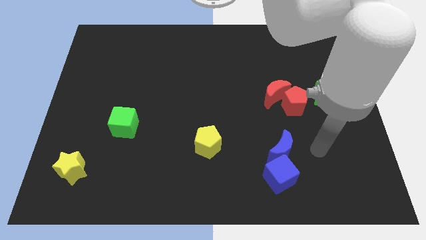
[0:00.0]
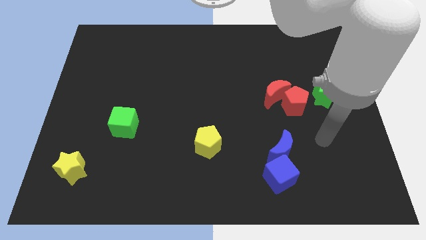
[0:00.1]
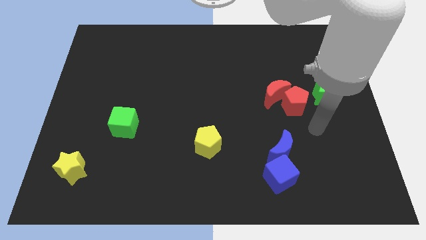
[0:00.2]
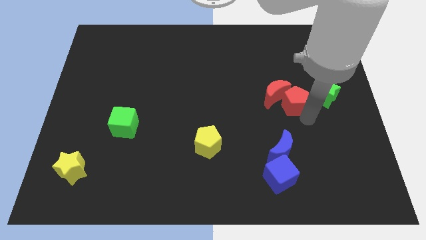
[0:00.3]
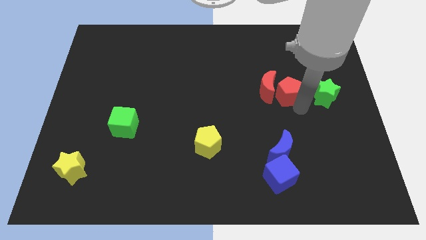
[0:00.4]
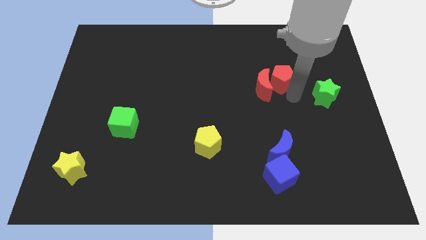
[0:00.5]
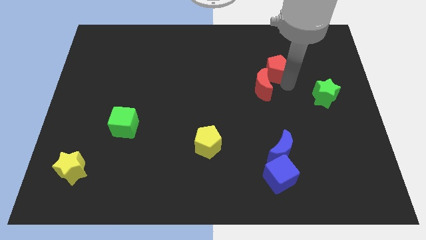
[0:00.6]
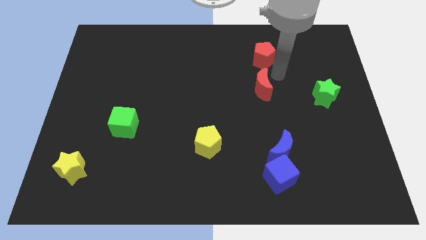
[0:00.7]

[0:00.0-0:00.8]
pull the red moon apart from the red pentagon

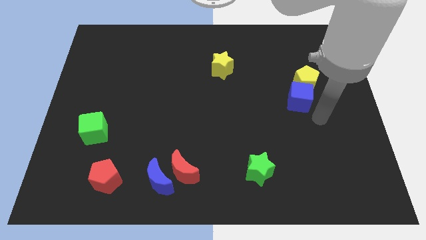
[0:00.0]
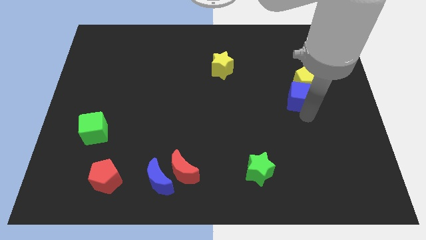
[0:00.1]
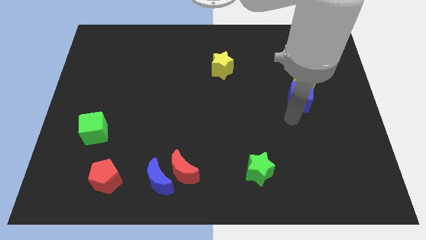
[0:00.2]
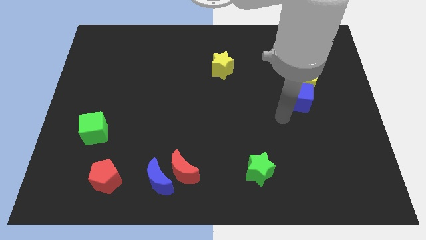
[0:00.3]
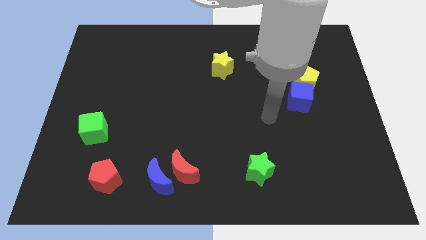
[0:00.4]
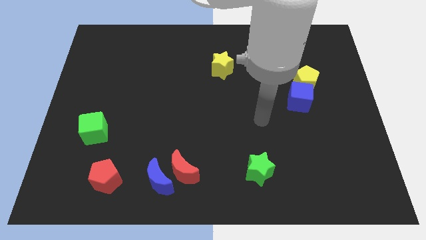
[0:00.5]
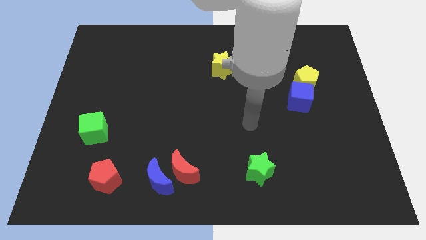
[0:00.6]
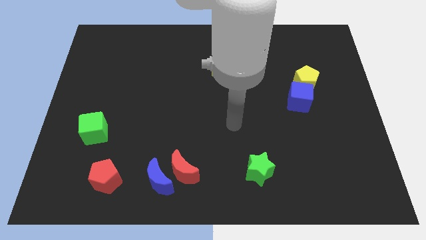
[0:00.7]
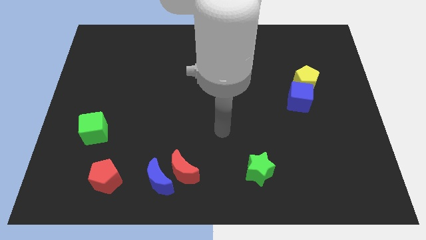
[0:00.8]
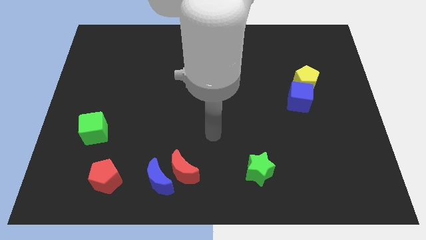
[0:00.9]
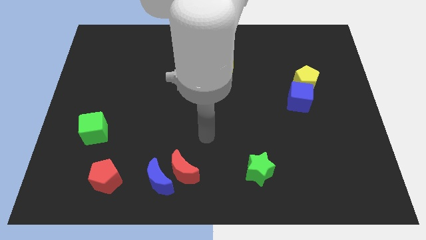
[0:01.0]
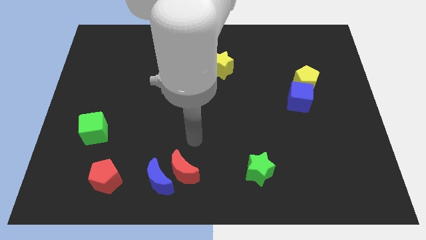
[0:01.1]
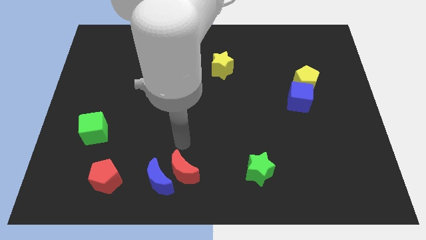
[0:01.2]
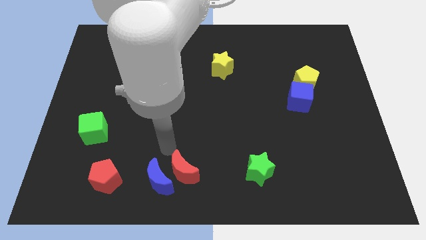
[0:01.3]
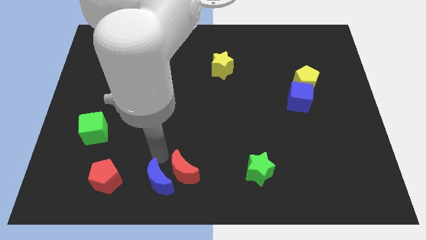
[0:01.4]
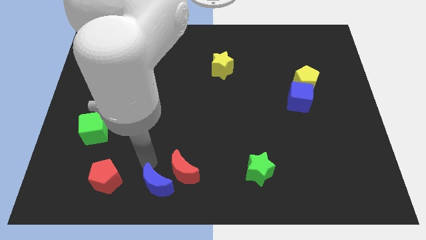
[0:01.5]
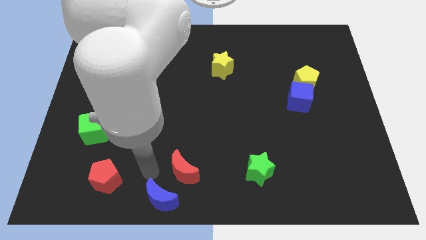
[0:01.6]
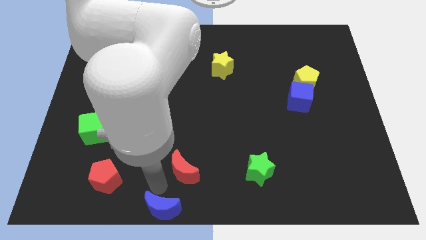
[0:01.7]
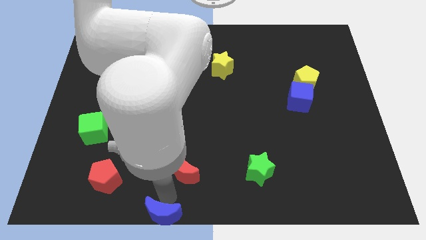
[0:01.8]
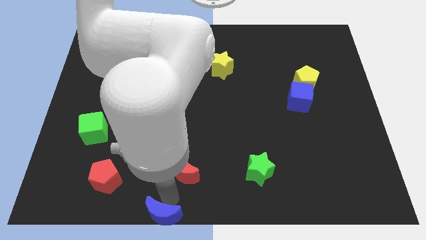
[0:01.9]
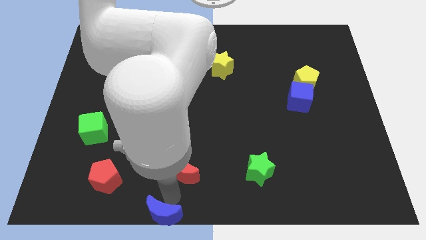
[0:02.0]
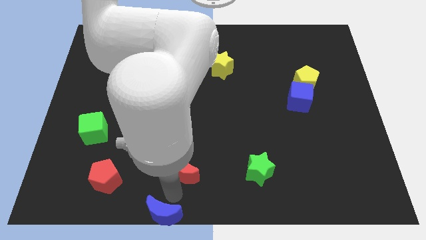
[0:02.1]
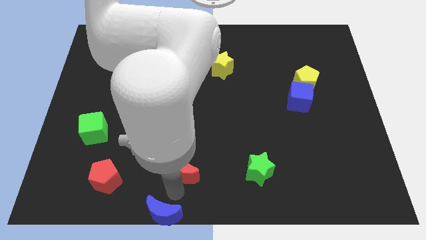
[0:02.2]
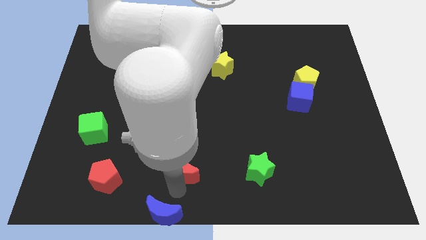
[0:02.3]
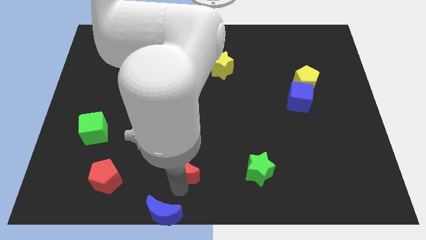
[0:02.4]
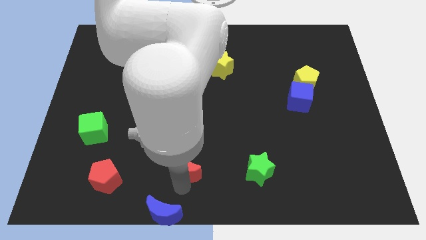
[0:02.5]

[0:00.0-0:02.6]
pull the red moon apart from the blue moon

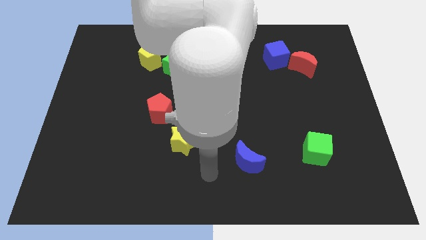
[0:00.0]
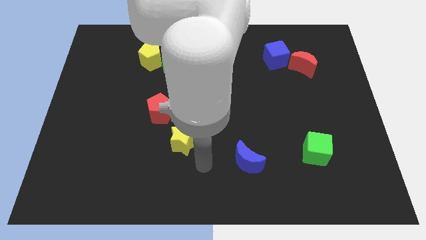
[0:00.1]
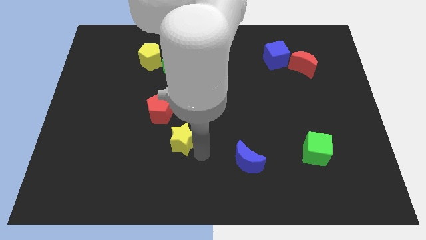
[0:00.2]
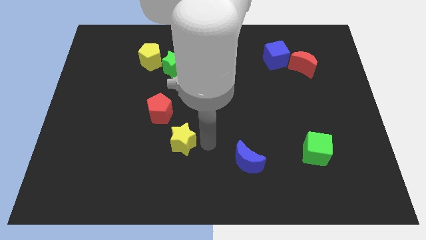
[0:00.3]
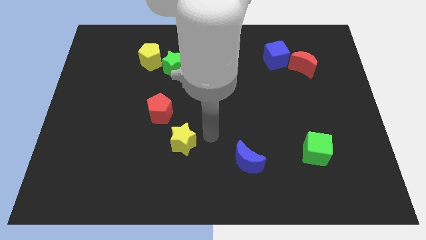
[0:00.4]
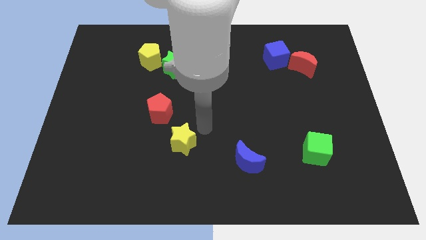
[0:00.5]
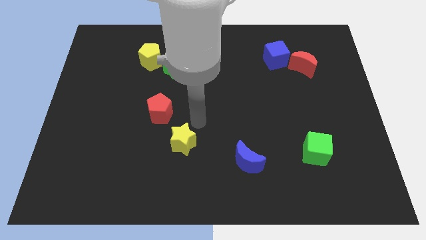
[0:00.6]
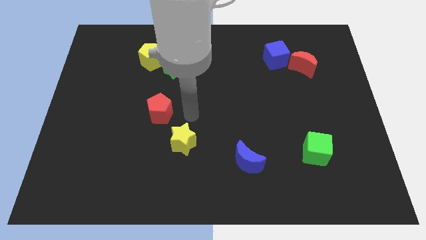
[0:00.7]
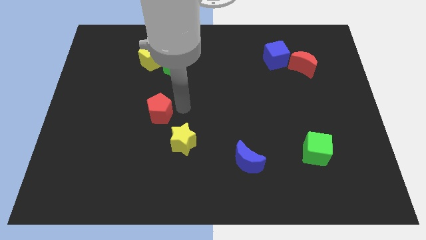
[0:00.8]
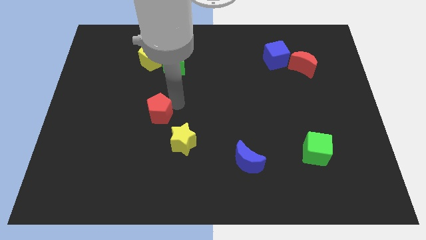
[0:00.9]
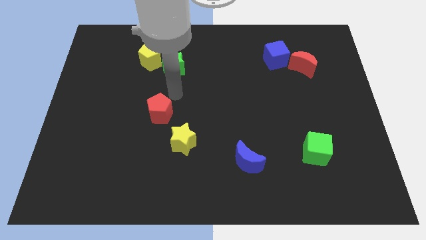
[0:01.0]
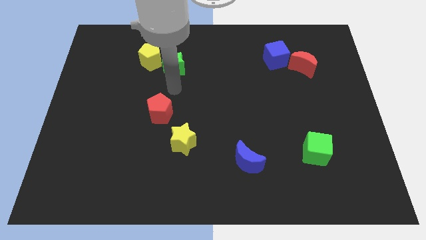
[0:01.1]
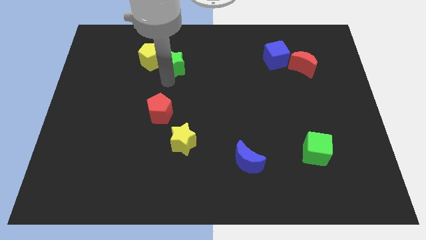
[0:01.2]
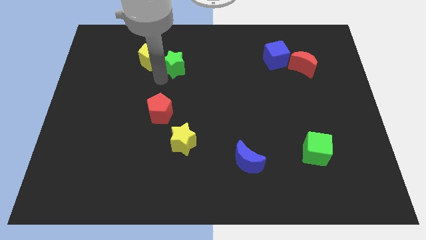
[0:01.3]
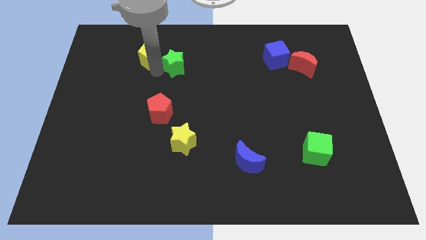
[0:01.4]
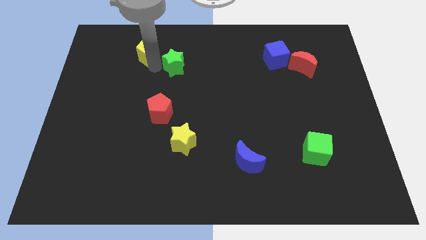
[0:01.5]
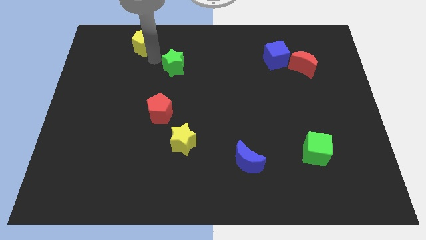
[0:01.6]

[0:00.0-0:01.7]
move the green star away from the yellow pentagon

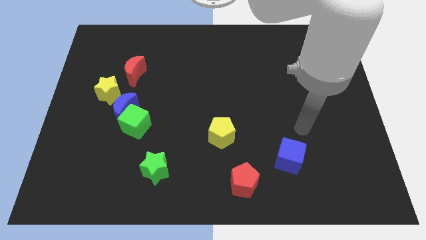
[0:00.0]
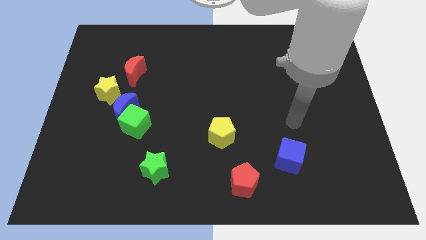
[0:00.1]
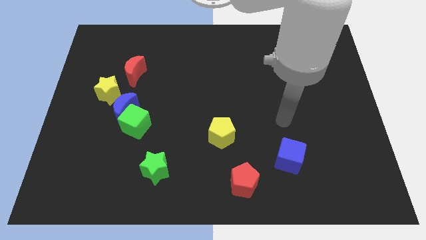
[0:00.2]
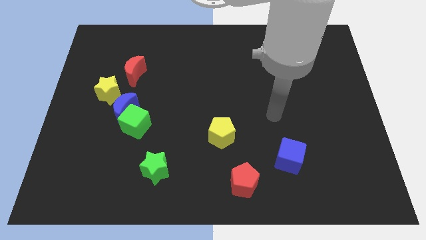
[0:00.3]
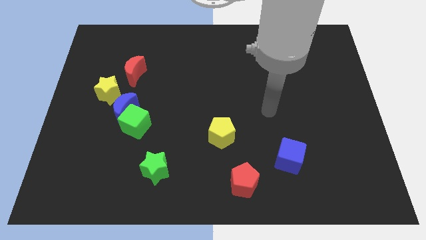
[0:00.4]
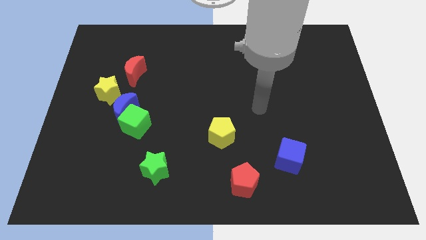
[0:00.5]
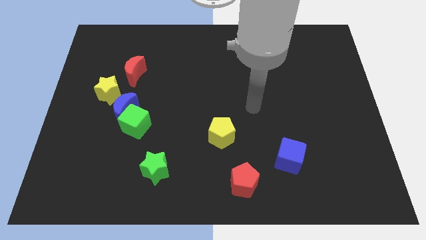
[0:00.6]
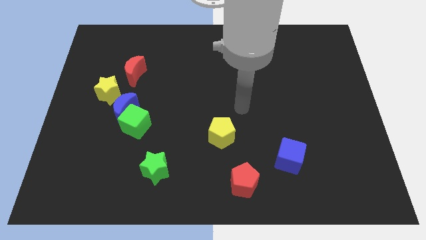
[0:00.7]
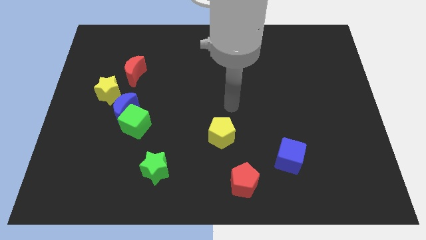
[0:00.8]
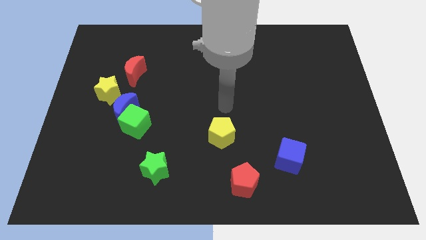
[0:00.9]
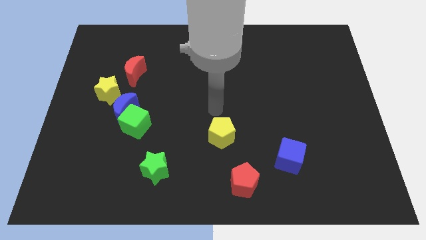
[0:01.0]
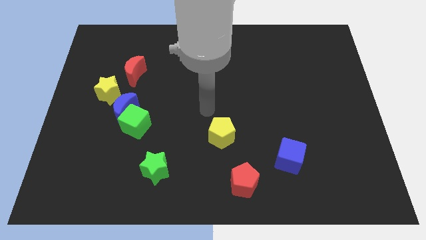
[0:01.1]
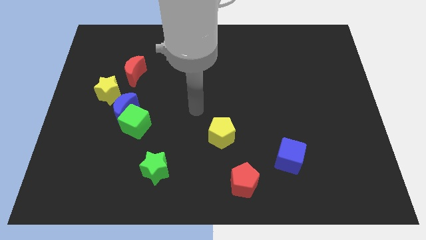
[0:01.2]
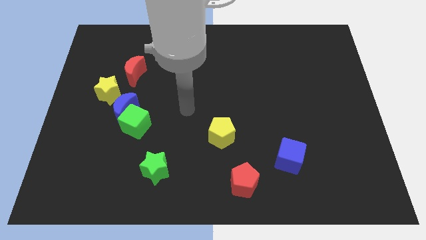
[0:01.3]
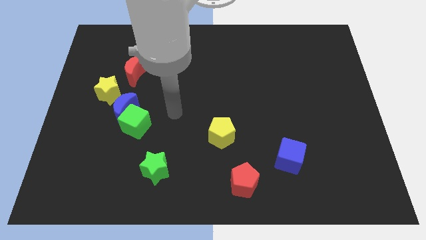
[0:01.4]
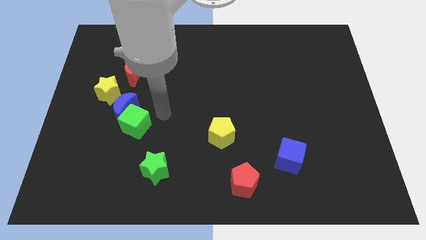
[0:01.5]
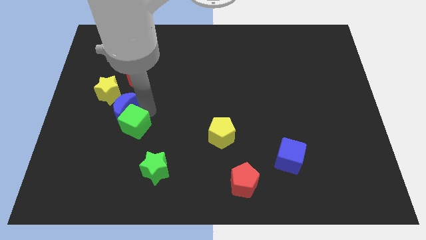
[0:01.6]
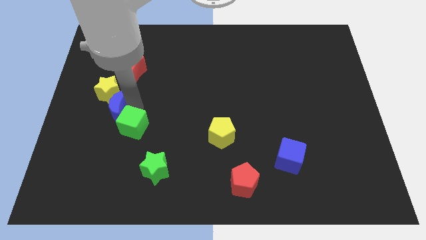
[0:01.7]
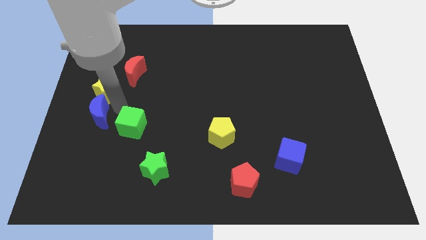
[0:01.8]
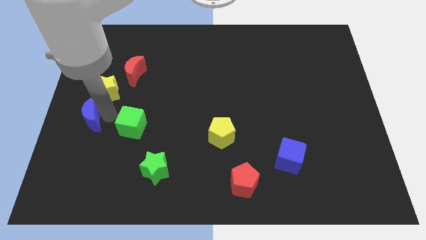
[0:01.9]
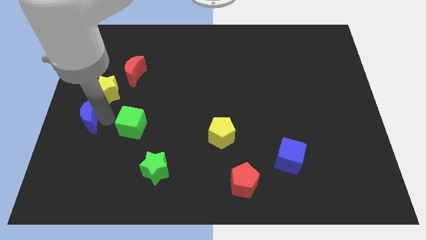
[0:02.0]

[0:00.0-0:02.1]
pull the green cube apart from the blue moon

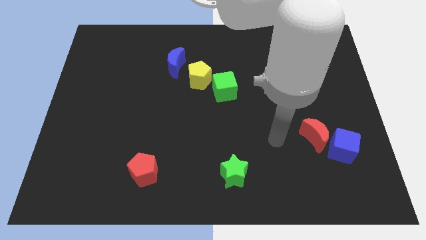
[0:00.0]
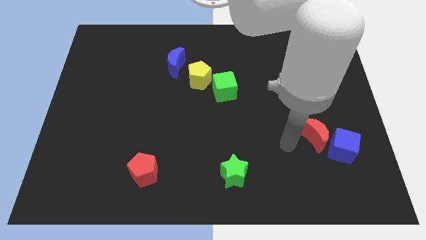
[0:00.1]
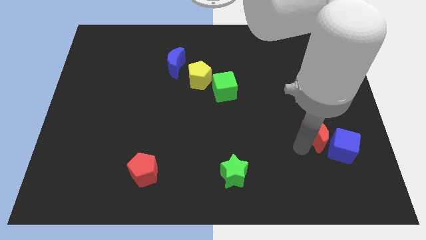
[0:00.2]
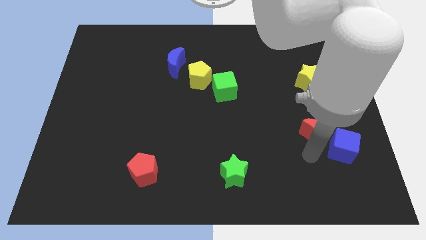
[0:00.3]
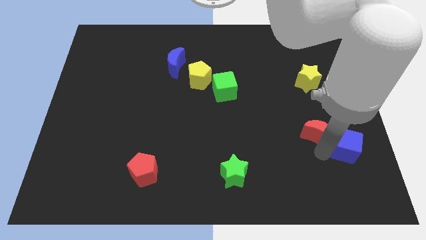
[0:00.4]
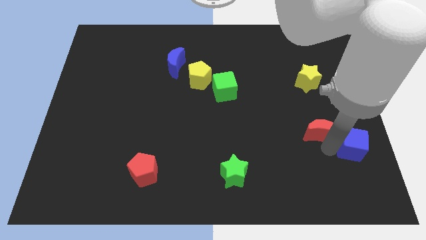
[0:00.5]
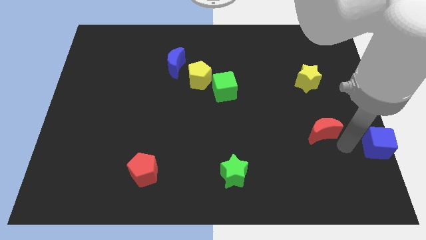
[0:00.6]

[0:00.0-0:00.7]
separate the red moon from the blue cube

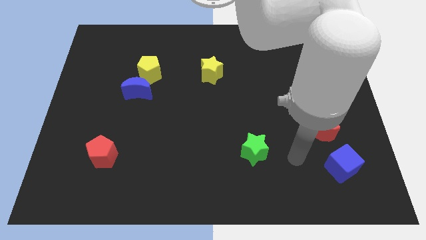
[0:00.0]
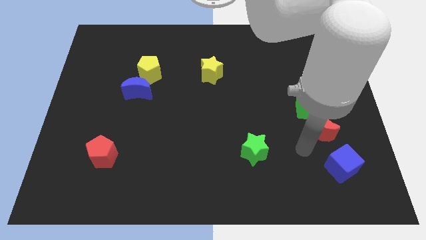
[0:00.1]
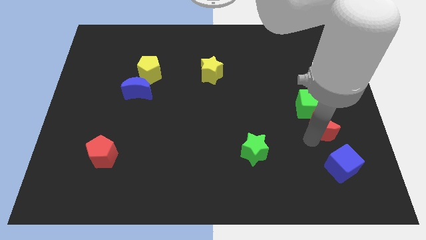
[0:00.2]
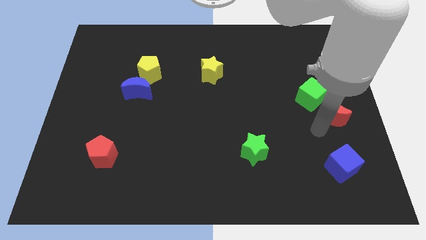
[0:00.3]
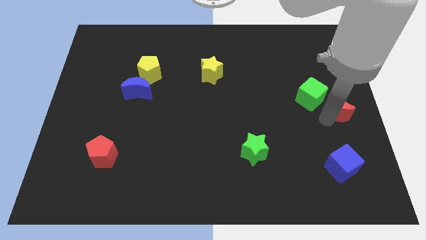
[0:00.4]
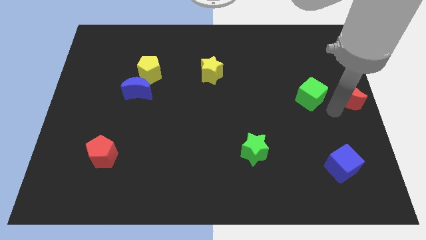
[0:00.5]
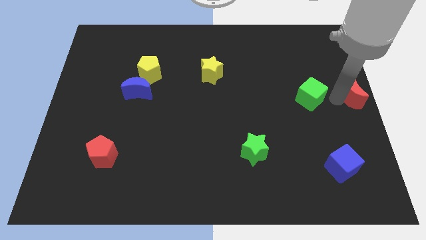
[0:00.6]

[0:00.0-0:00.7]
move the green cube away from the red moon

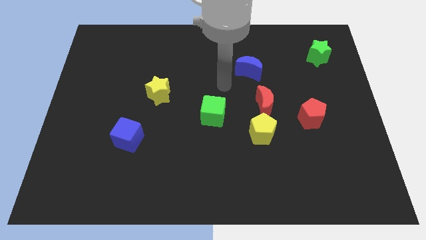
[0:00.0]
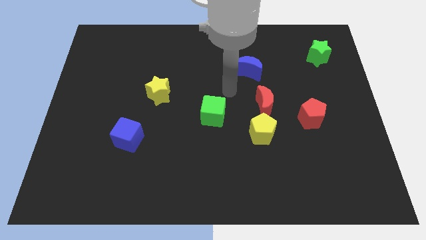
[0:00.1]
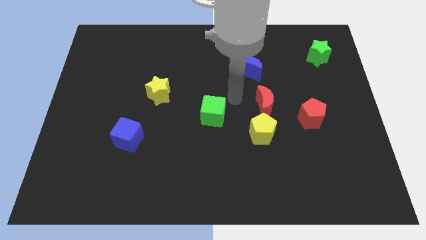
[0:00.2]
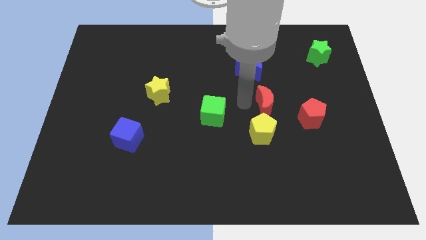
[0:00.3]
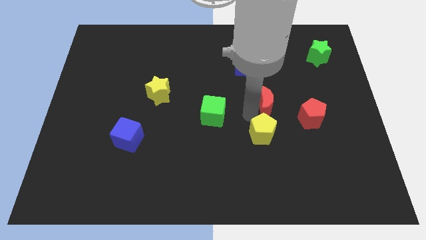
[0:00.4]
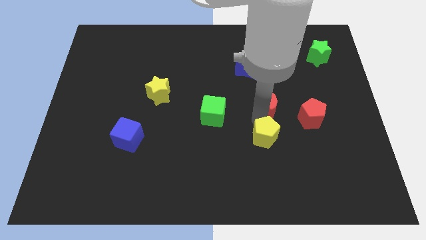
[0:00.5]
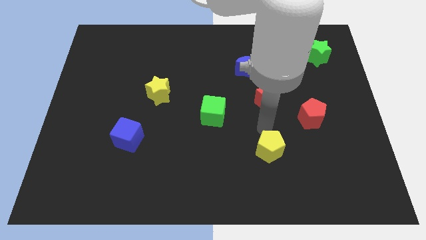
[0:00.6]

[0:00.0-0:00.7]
move the red moon away from the yellow pentagon
